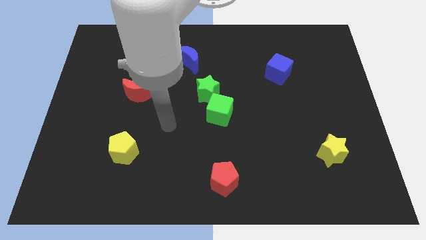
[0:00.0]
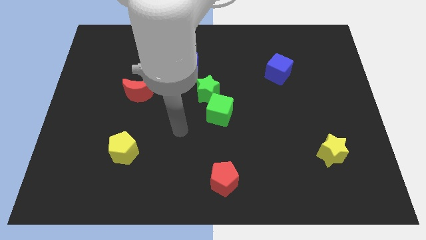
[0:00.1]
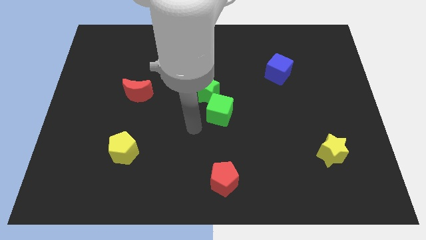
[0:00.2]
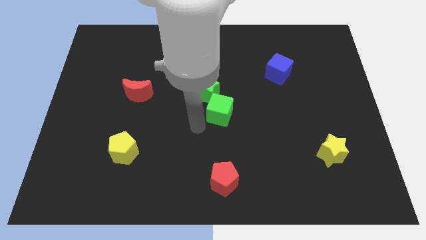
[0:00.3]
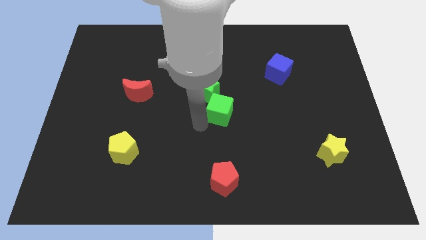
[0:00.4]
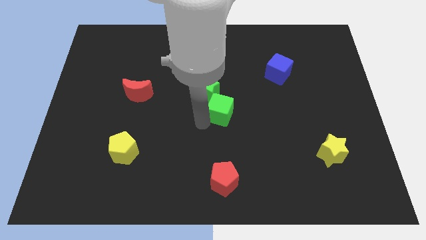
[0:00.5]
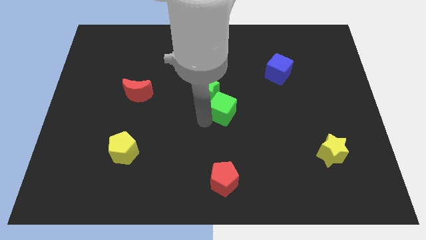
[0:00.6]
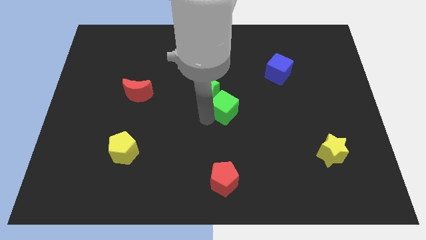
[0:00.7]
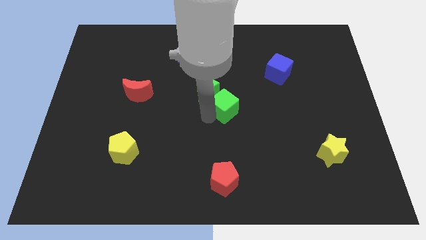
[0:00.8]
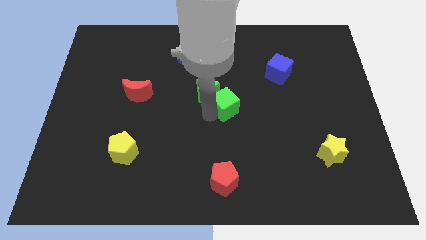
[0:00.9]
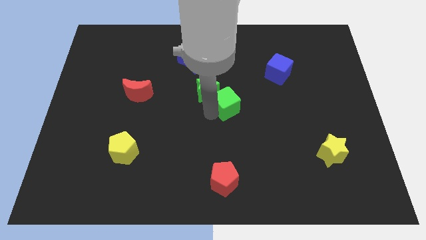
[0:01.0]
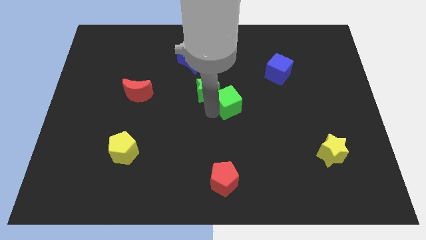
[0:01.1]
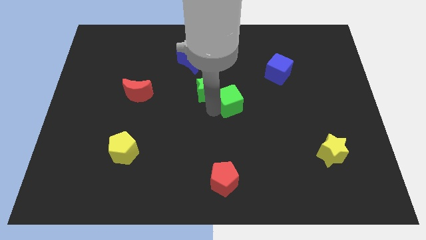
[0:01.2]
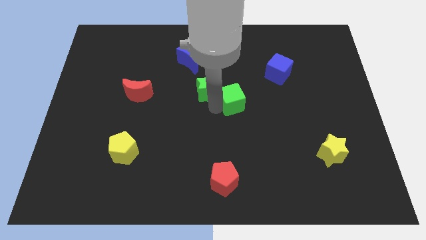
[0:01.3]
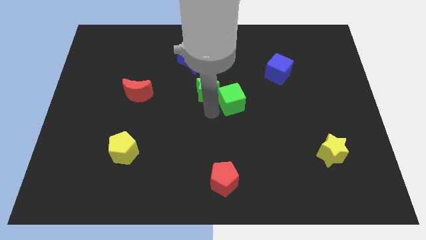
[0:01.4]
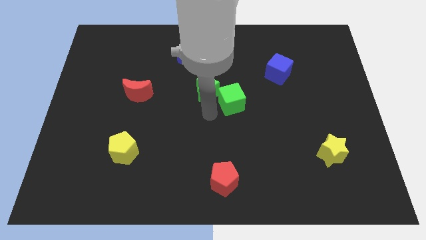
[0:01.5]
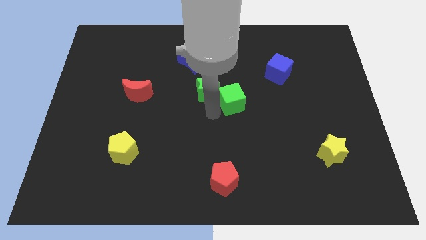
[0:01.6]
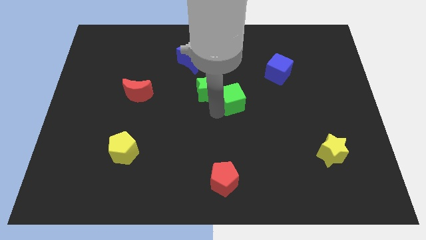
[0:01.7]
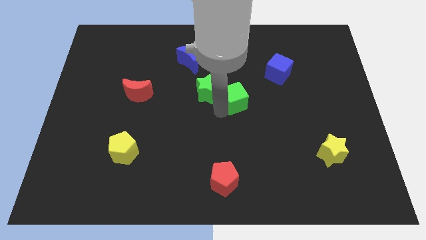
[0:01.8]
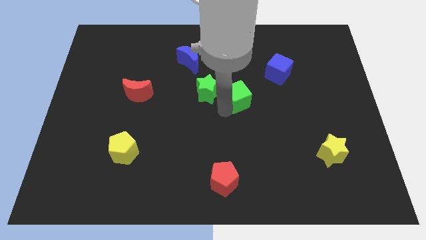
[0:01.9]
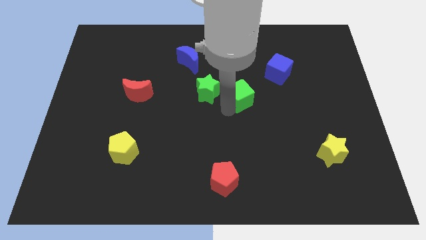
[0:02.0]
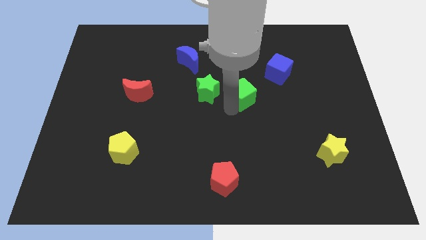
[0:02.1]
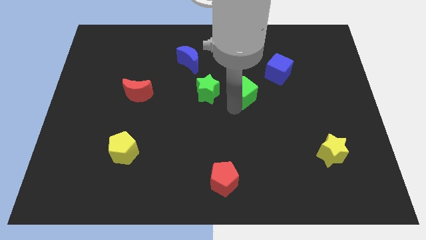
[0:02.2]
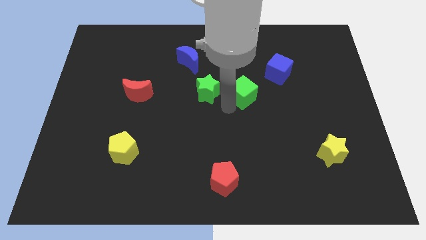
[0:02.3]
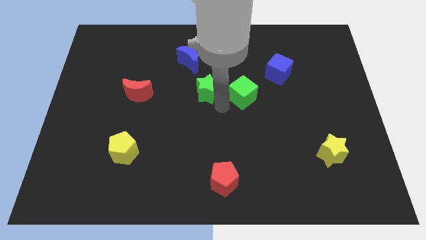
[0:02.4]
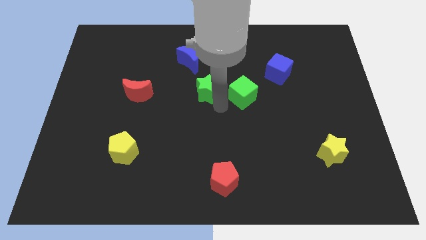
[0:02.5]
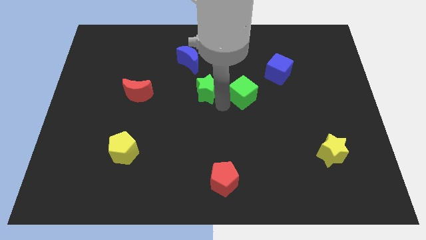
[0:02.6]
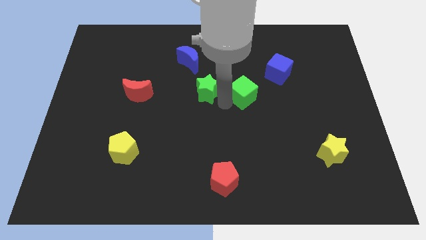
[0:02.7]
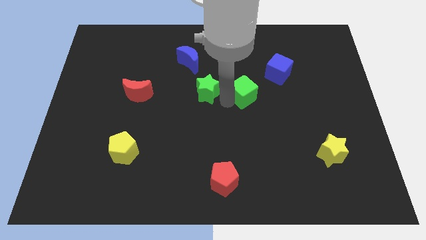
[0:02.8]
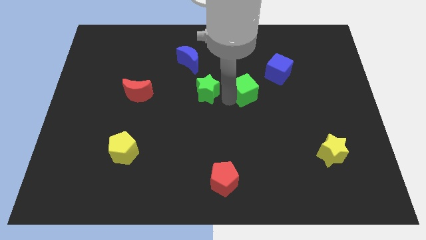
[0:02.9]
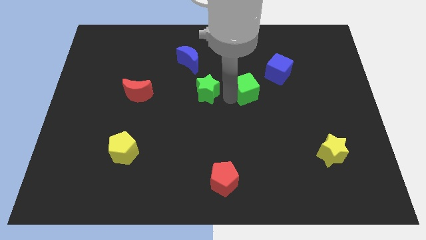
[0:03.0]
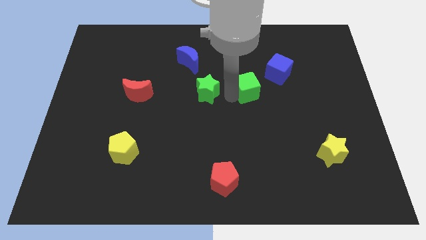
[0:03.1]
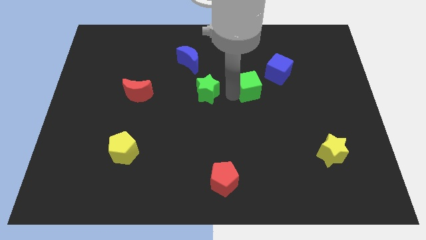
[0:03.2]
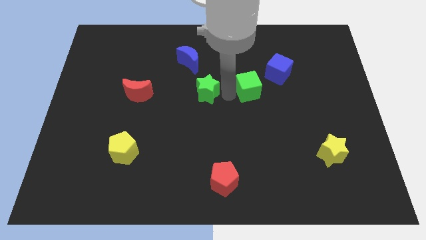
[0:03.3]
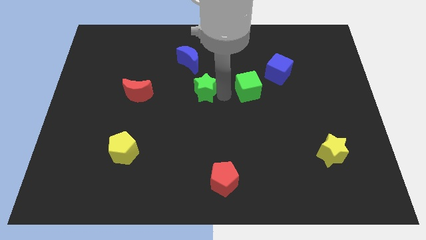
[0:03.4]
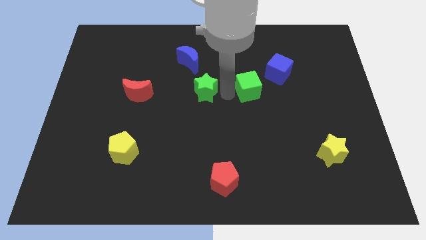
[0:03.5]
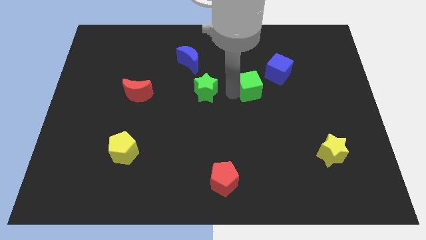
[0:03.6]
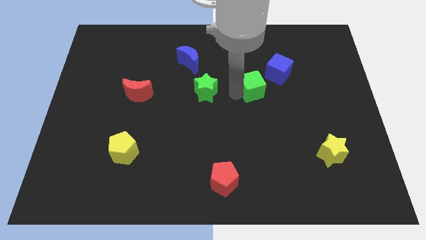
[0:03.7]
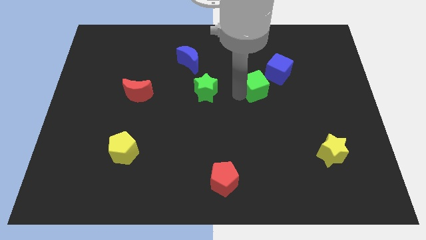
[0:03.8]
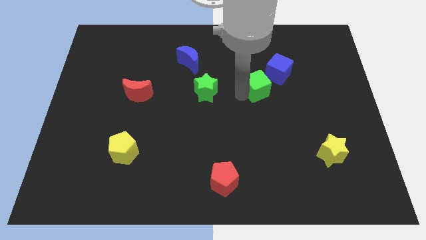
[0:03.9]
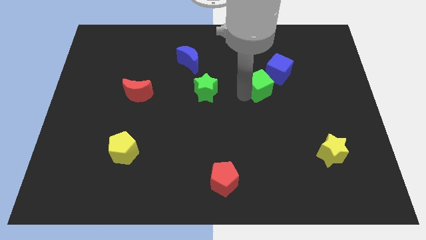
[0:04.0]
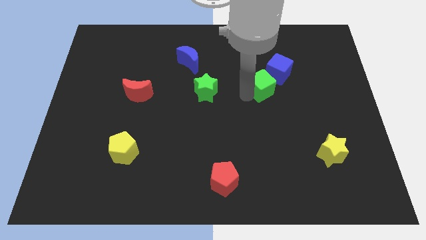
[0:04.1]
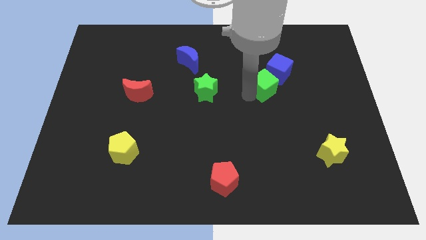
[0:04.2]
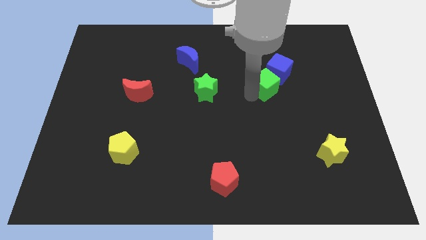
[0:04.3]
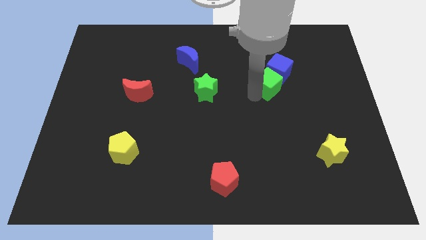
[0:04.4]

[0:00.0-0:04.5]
move the green cube close to the blue cube

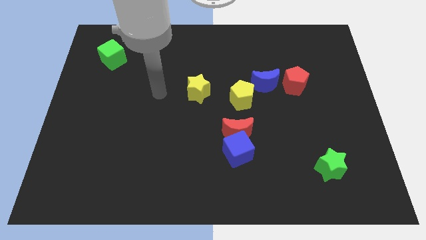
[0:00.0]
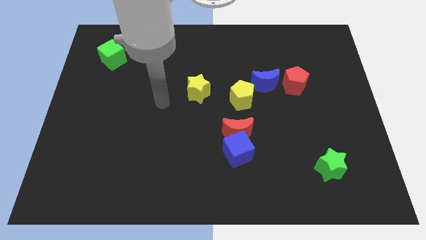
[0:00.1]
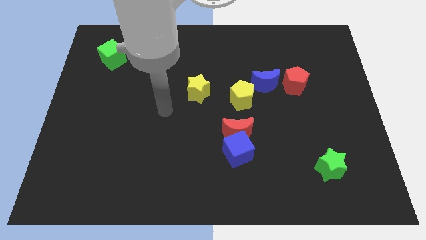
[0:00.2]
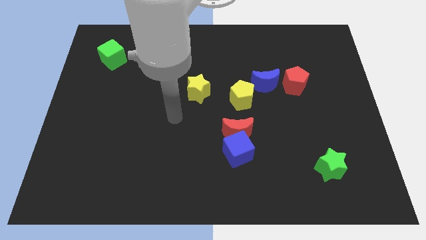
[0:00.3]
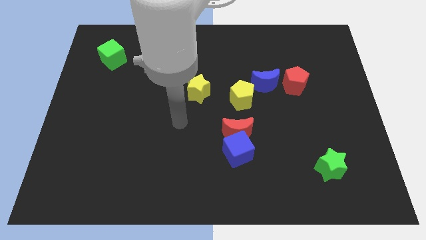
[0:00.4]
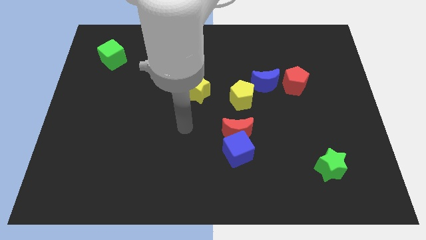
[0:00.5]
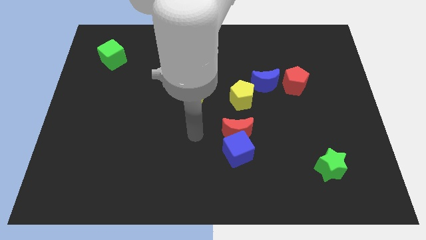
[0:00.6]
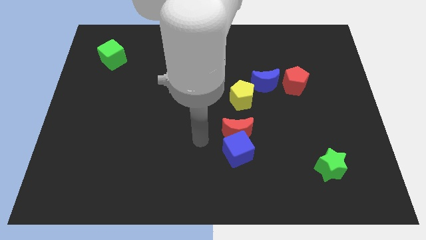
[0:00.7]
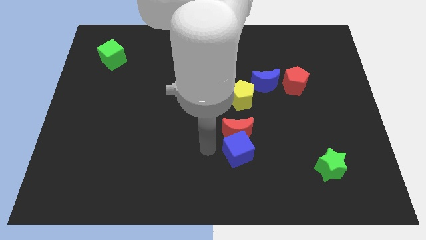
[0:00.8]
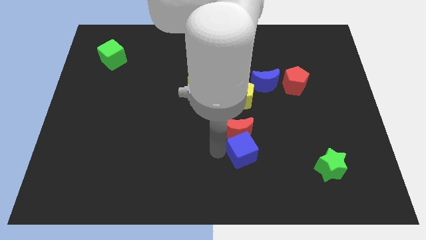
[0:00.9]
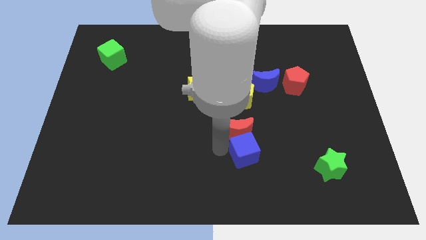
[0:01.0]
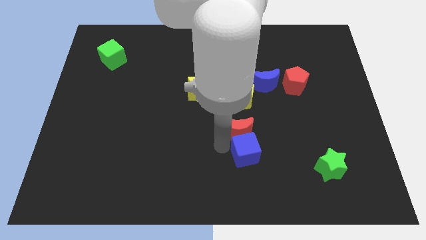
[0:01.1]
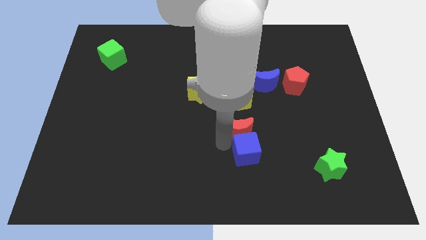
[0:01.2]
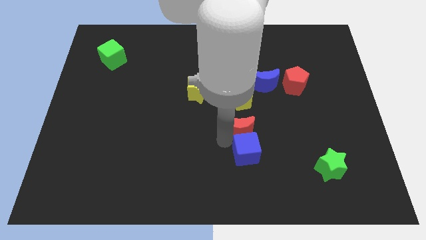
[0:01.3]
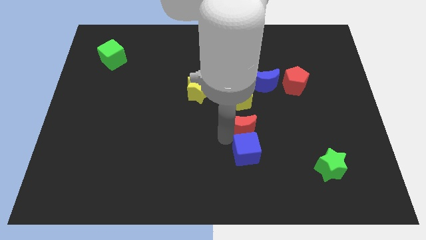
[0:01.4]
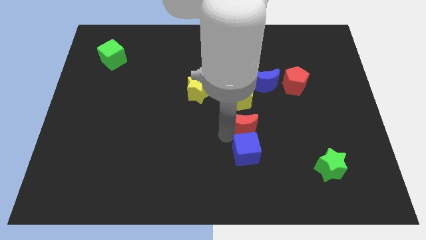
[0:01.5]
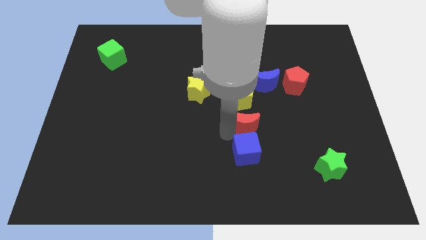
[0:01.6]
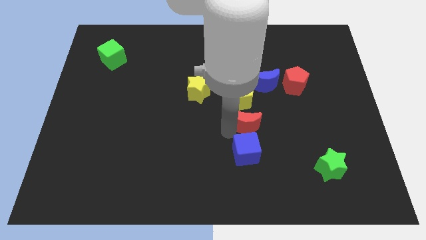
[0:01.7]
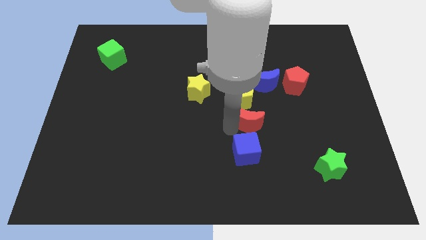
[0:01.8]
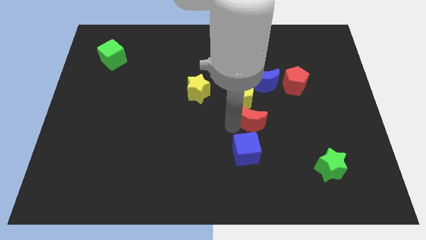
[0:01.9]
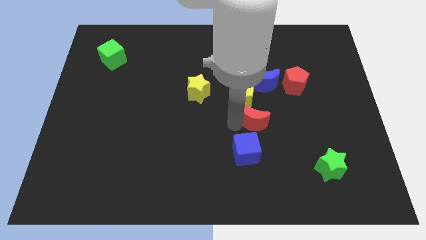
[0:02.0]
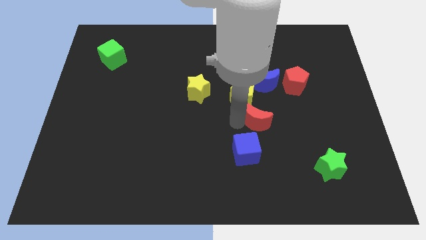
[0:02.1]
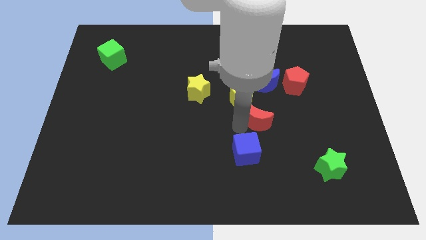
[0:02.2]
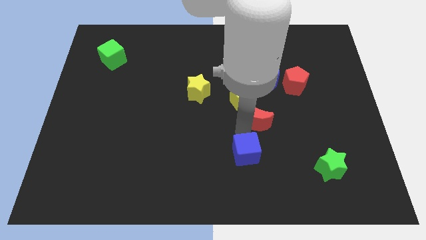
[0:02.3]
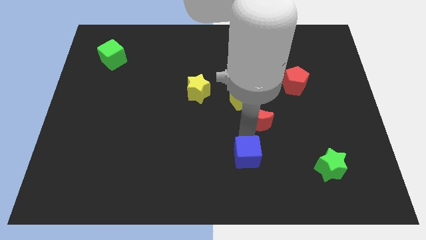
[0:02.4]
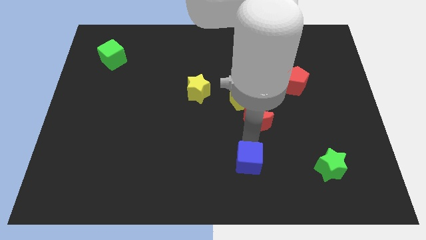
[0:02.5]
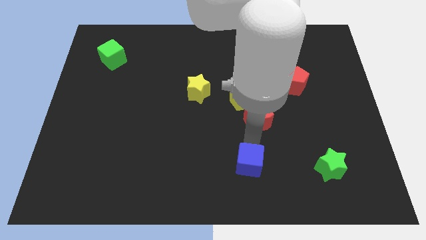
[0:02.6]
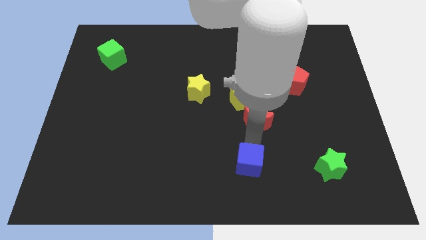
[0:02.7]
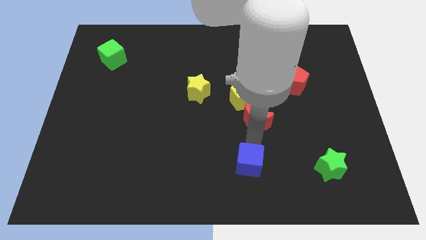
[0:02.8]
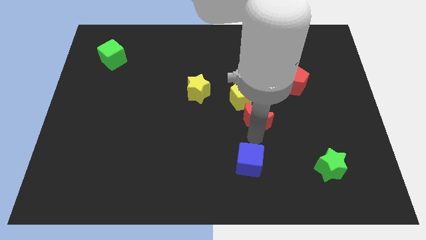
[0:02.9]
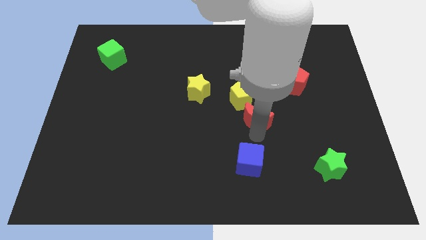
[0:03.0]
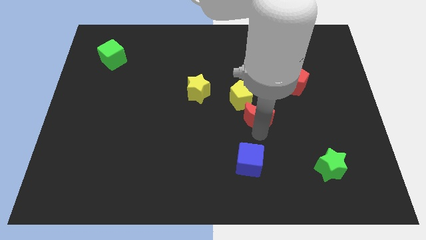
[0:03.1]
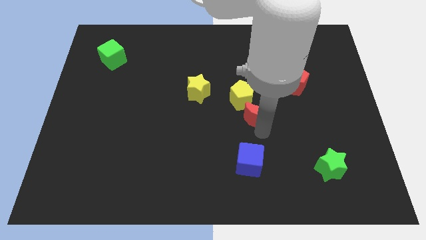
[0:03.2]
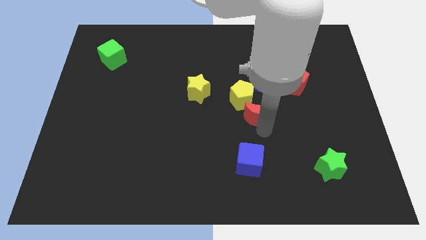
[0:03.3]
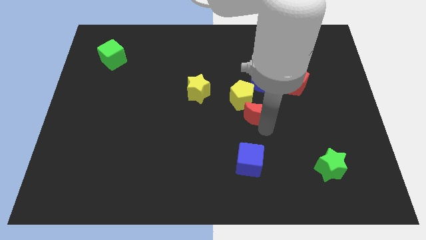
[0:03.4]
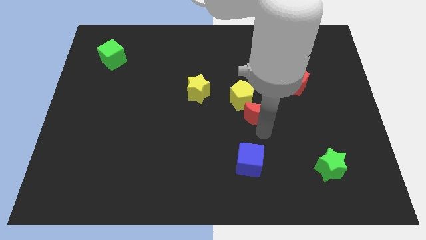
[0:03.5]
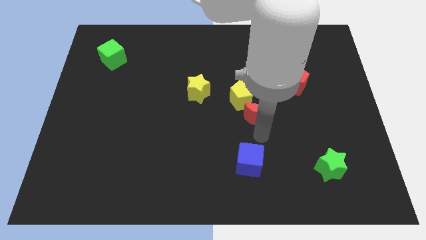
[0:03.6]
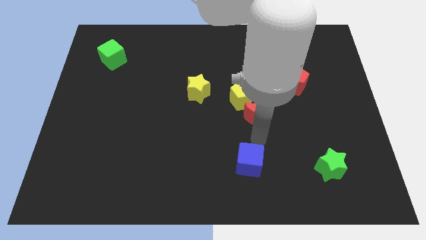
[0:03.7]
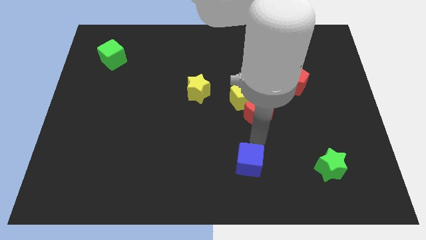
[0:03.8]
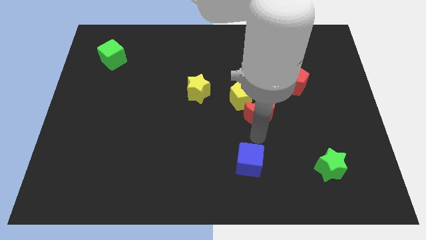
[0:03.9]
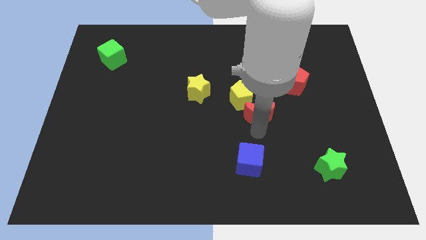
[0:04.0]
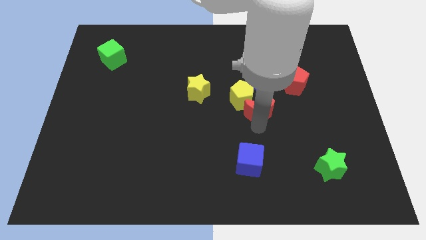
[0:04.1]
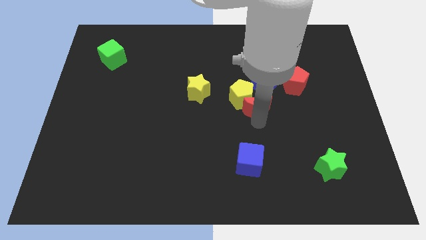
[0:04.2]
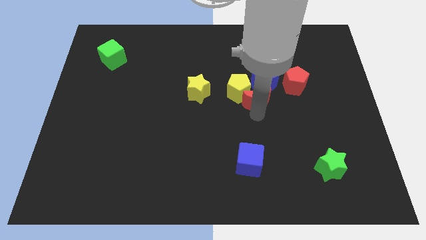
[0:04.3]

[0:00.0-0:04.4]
move the red moon towards the blue moon
